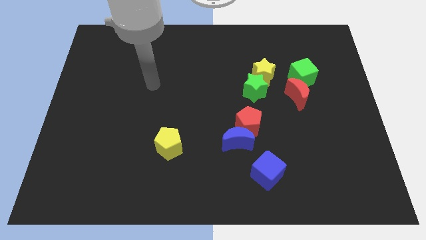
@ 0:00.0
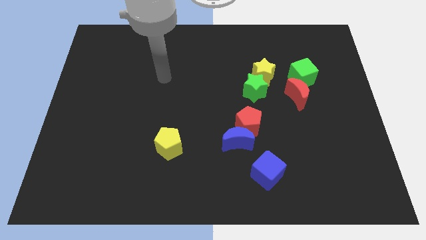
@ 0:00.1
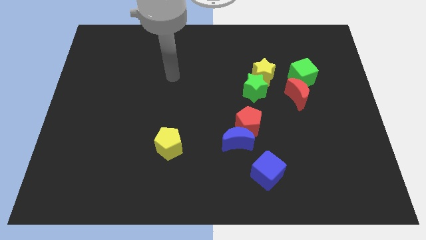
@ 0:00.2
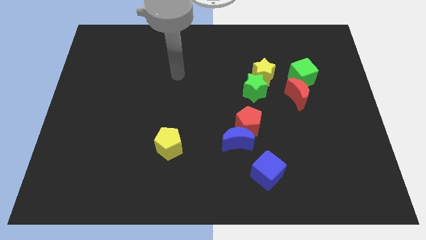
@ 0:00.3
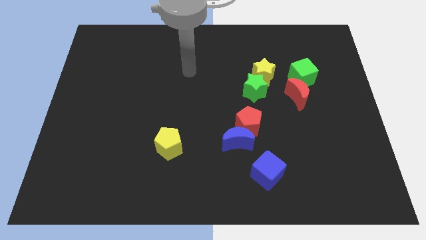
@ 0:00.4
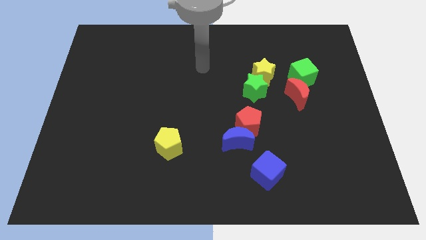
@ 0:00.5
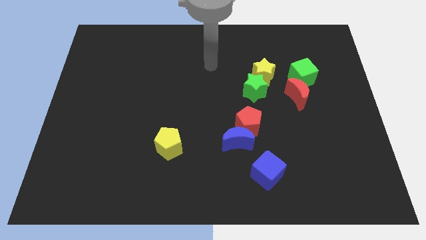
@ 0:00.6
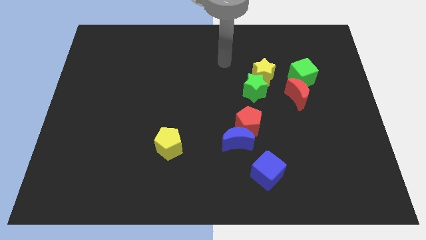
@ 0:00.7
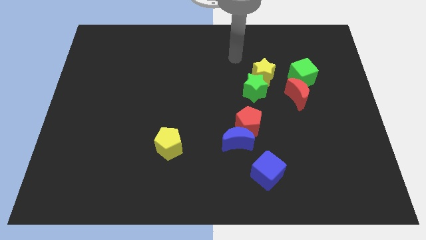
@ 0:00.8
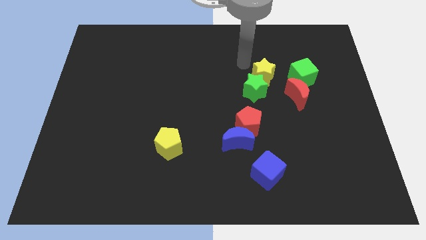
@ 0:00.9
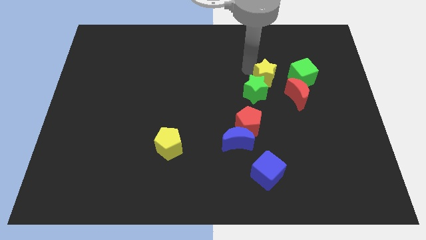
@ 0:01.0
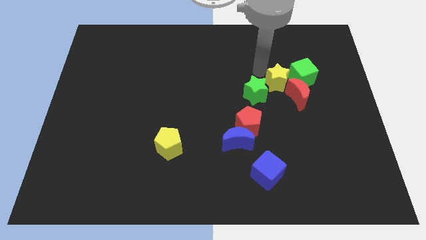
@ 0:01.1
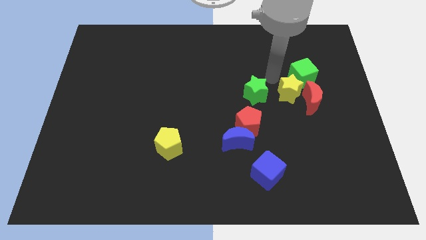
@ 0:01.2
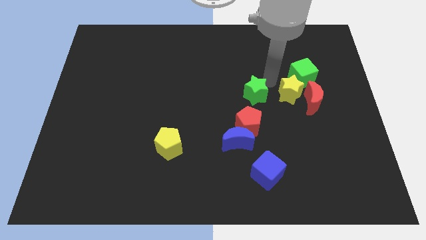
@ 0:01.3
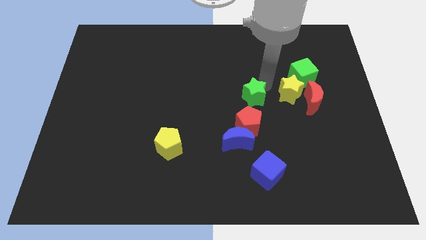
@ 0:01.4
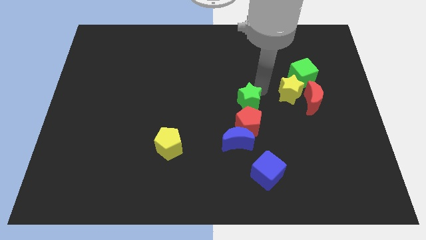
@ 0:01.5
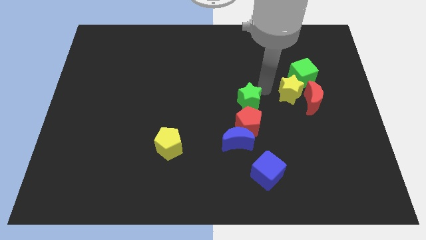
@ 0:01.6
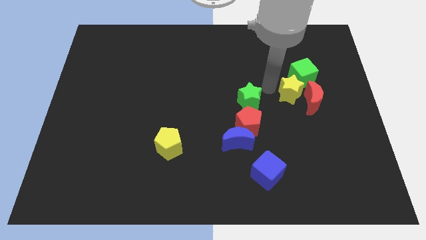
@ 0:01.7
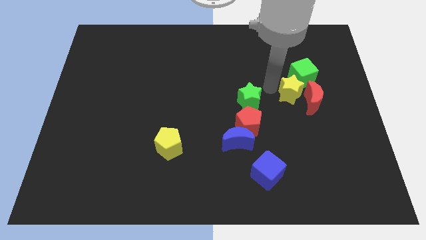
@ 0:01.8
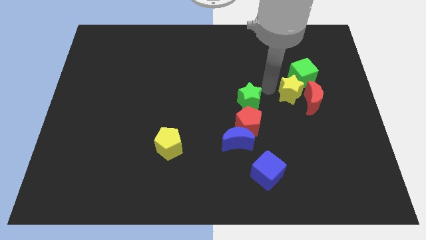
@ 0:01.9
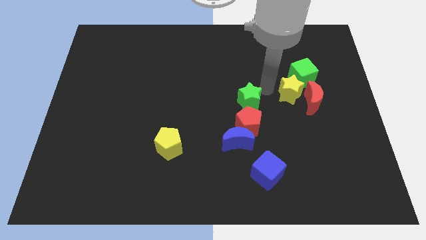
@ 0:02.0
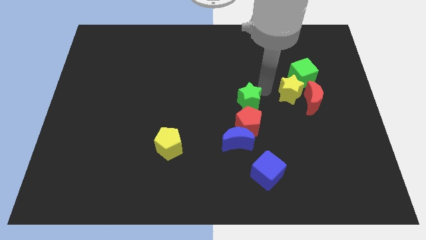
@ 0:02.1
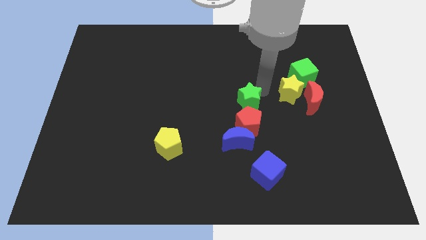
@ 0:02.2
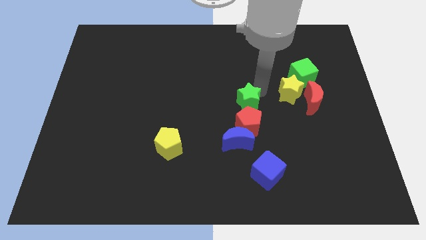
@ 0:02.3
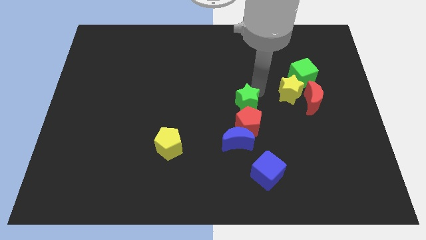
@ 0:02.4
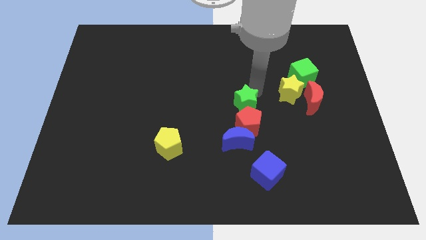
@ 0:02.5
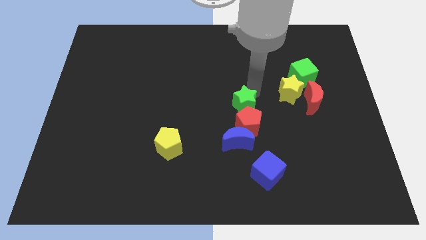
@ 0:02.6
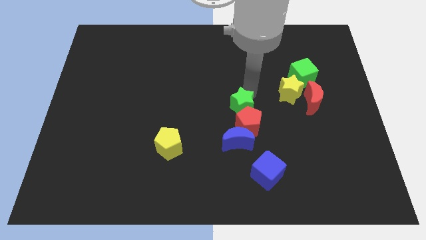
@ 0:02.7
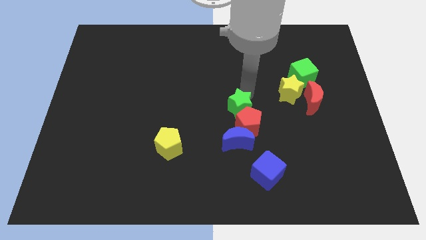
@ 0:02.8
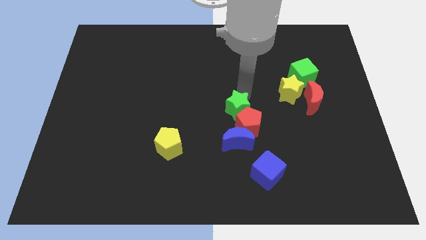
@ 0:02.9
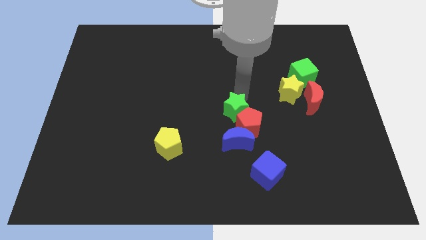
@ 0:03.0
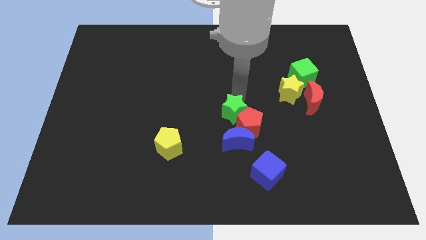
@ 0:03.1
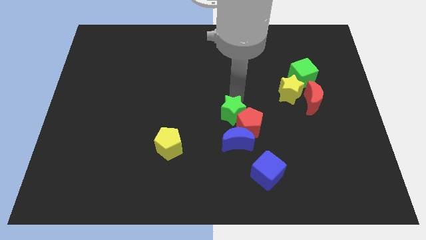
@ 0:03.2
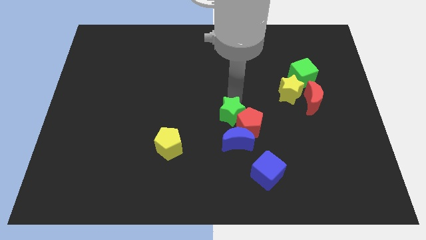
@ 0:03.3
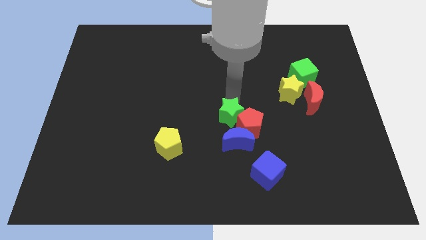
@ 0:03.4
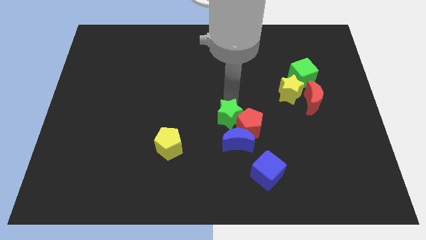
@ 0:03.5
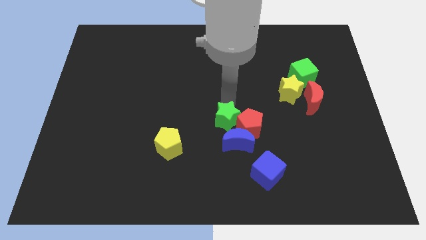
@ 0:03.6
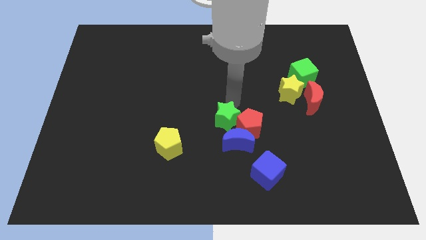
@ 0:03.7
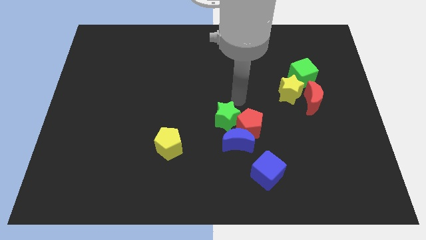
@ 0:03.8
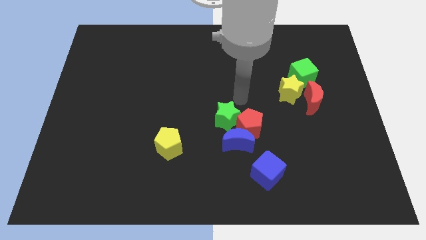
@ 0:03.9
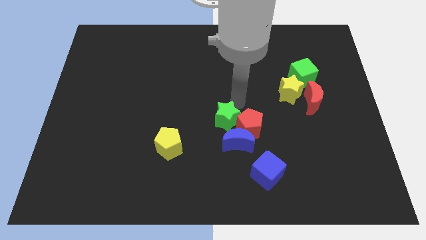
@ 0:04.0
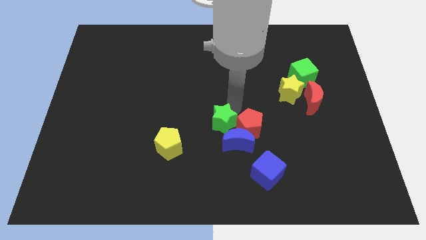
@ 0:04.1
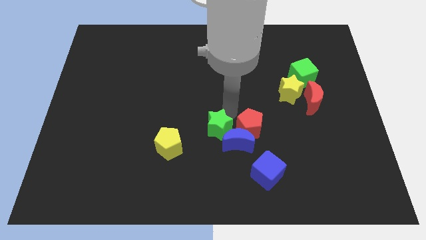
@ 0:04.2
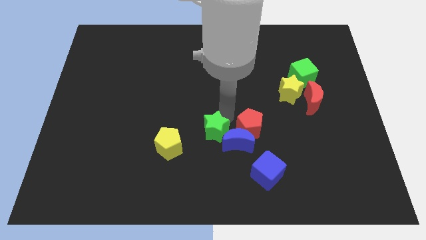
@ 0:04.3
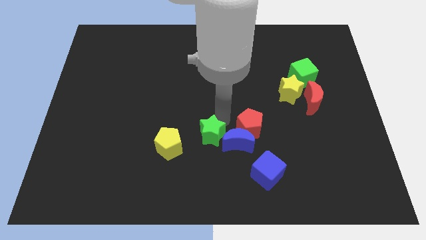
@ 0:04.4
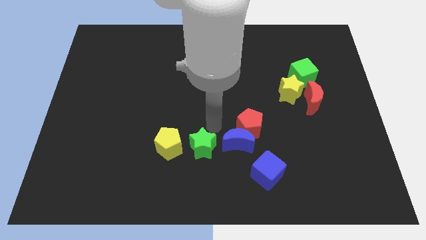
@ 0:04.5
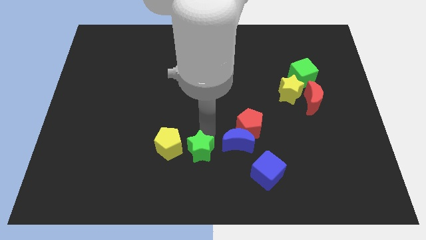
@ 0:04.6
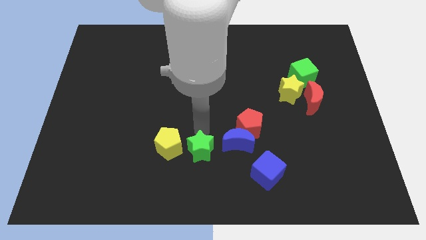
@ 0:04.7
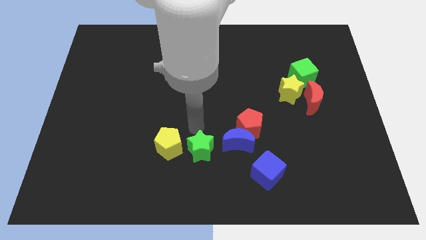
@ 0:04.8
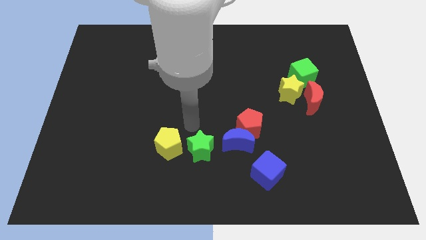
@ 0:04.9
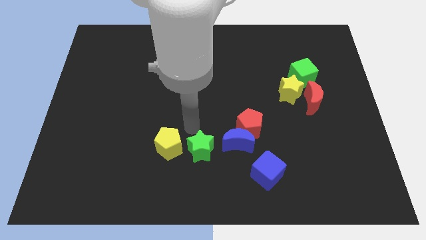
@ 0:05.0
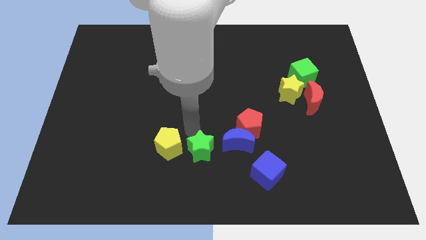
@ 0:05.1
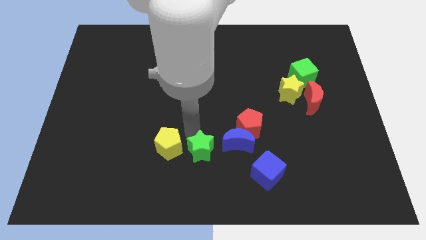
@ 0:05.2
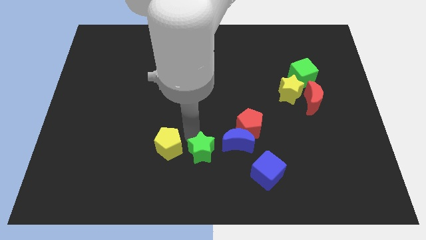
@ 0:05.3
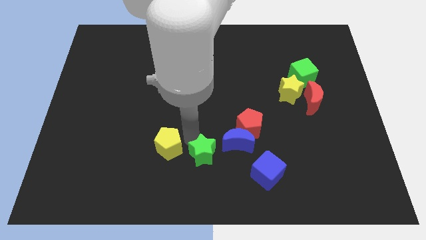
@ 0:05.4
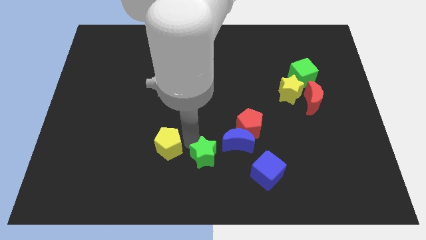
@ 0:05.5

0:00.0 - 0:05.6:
slide the green star to the bottom side
